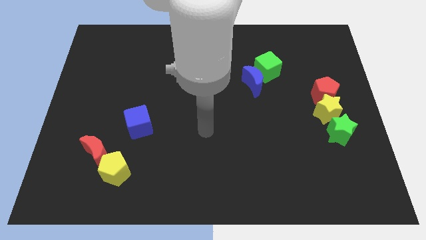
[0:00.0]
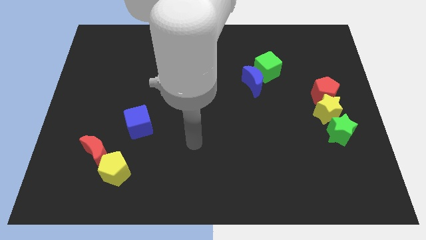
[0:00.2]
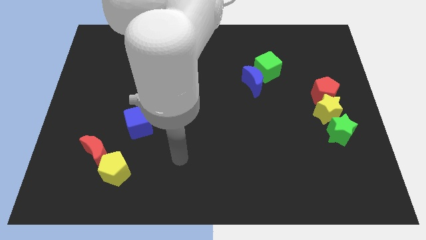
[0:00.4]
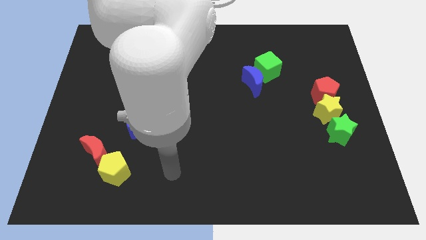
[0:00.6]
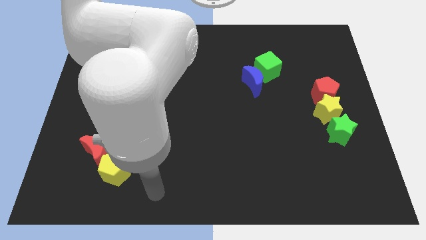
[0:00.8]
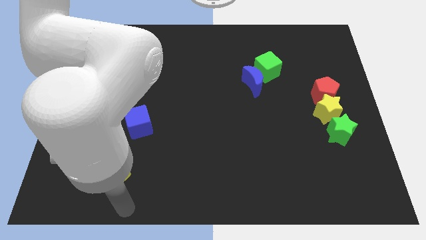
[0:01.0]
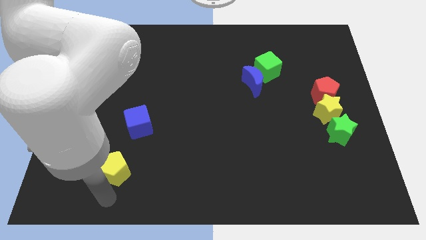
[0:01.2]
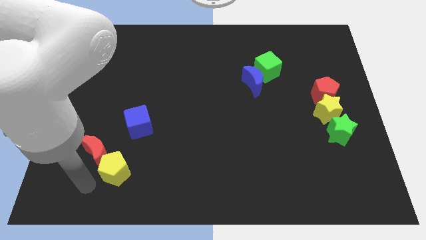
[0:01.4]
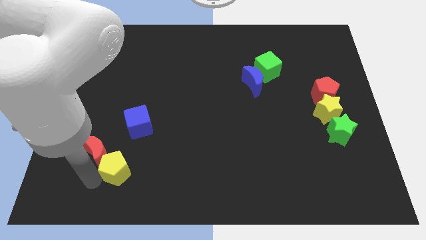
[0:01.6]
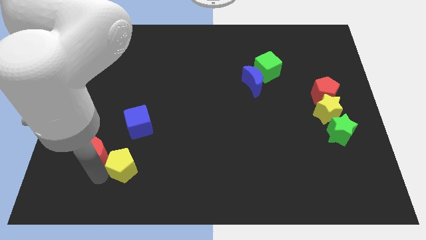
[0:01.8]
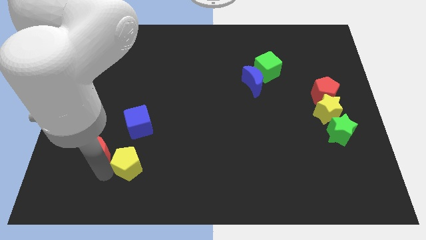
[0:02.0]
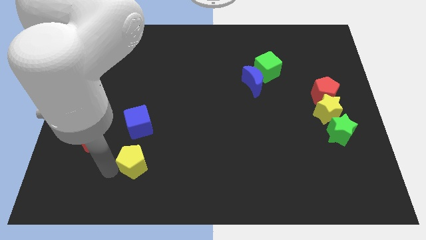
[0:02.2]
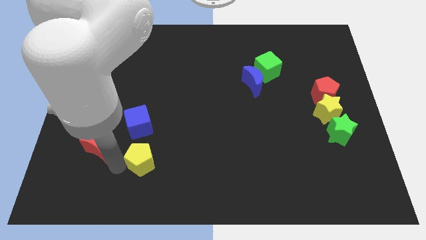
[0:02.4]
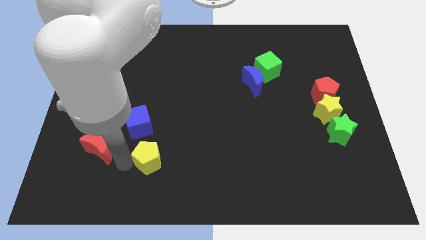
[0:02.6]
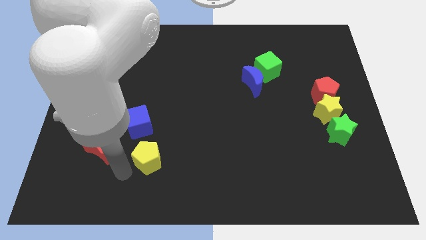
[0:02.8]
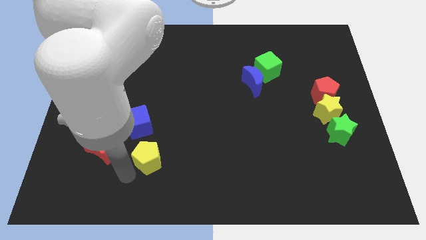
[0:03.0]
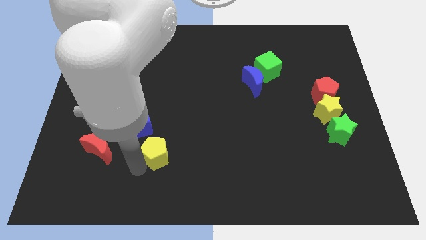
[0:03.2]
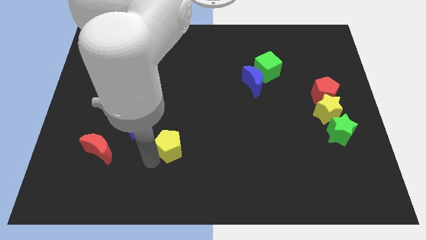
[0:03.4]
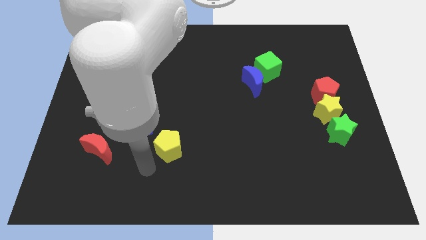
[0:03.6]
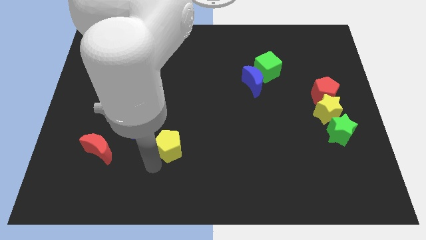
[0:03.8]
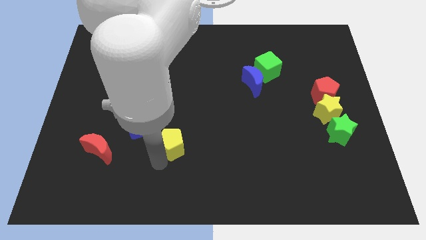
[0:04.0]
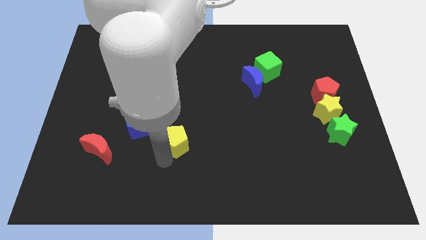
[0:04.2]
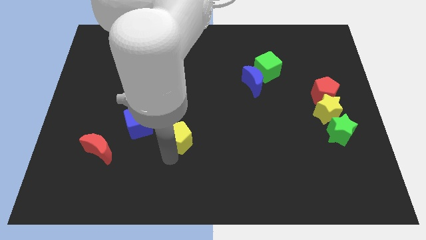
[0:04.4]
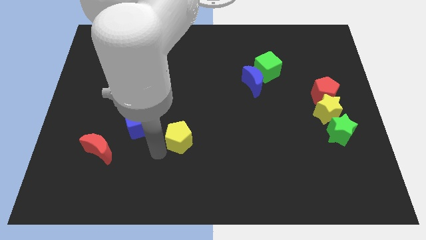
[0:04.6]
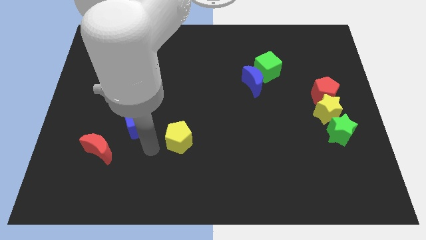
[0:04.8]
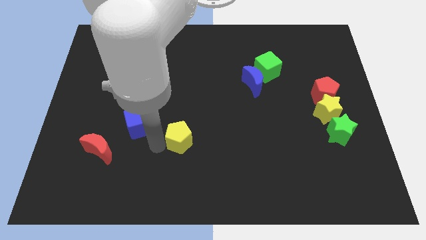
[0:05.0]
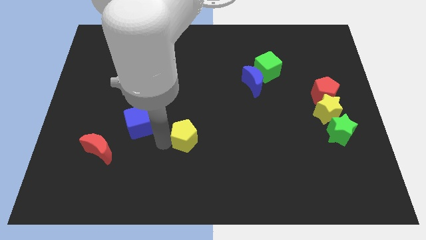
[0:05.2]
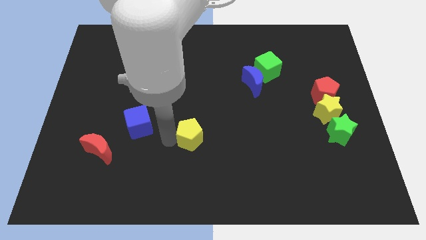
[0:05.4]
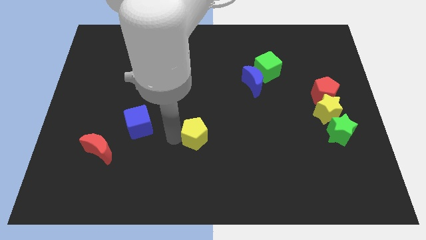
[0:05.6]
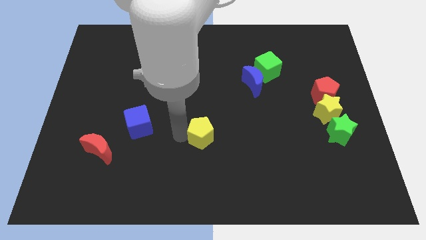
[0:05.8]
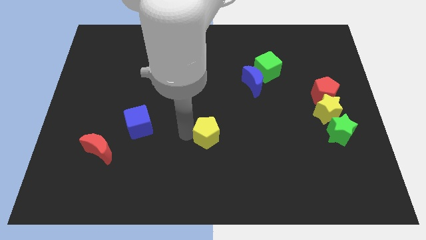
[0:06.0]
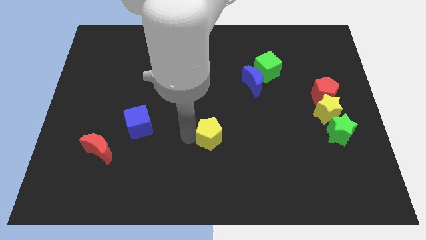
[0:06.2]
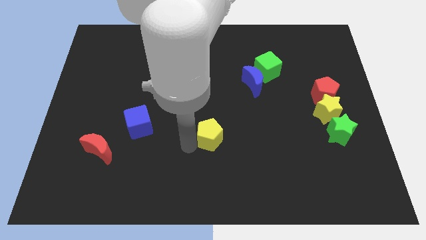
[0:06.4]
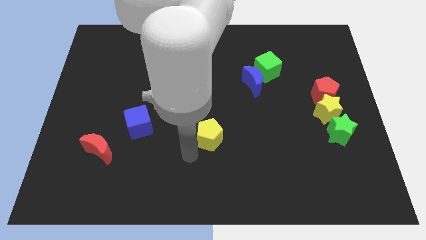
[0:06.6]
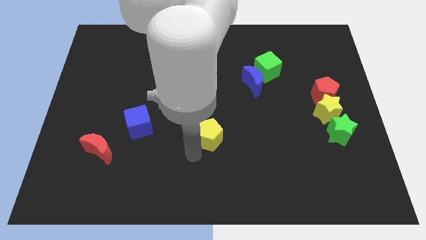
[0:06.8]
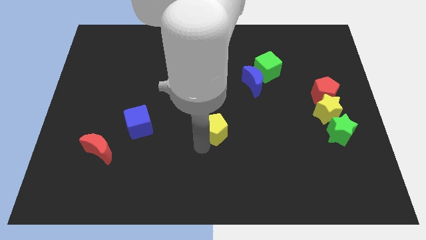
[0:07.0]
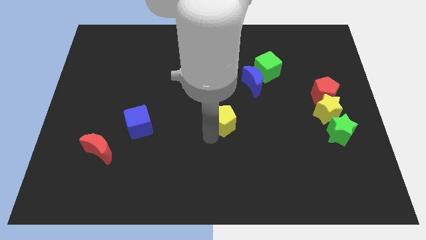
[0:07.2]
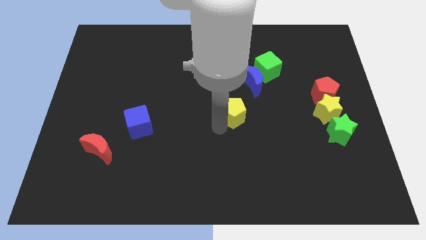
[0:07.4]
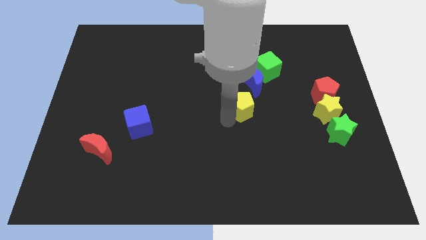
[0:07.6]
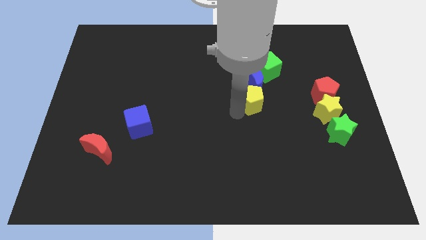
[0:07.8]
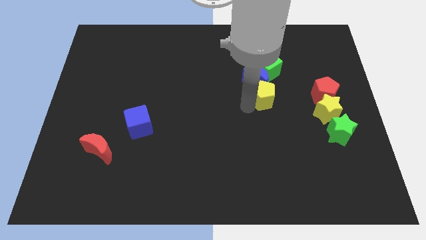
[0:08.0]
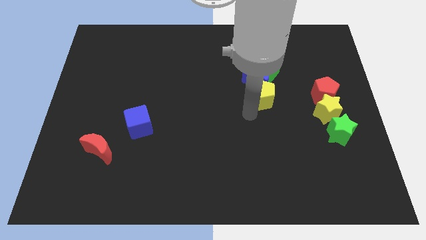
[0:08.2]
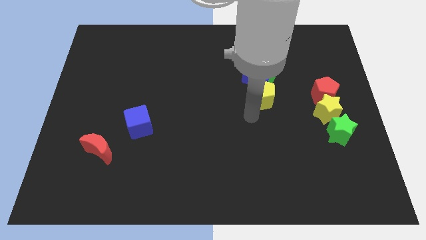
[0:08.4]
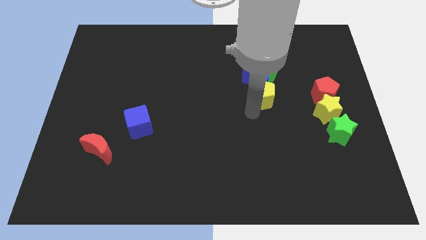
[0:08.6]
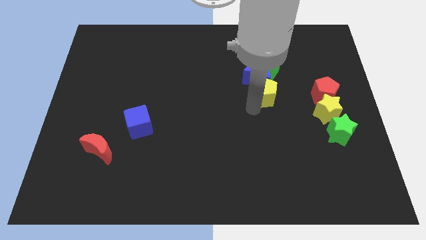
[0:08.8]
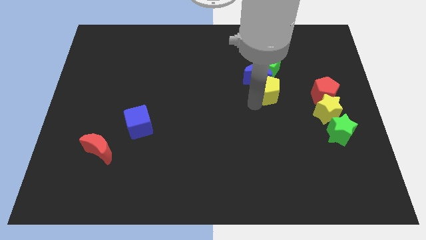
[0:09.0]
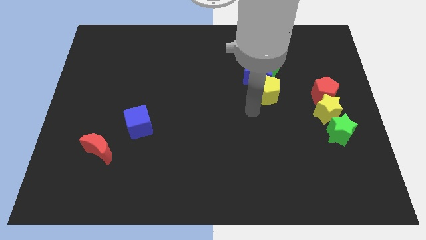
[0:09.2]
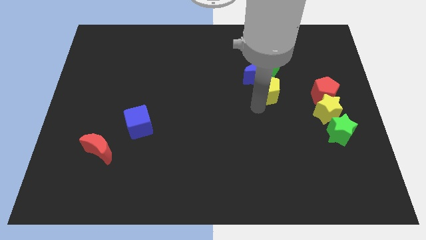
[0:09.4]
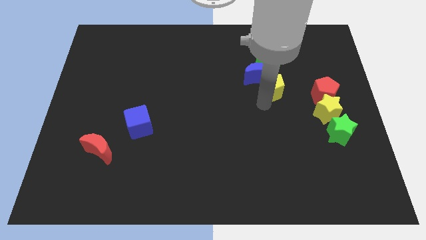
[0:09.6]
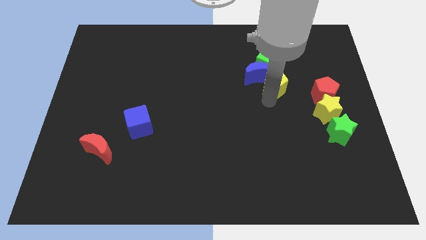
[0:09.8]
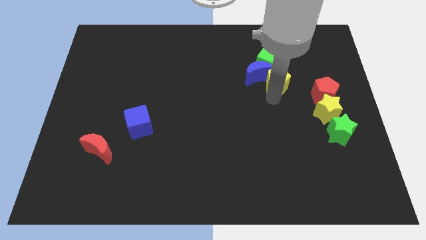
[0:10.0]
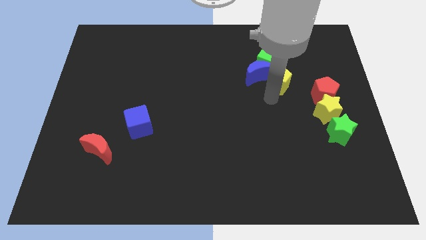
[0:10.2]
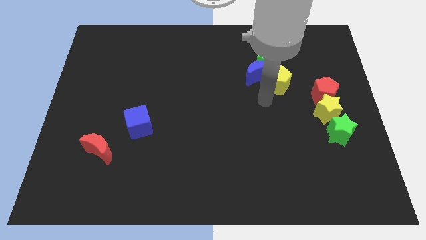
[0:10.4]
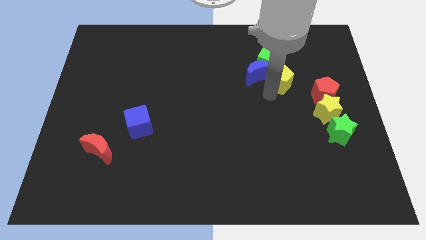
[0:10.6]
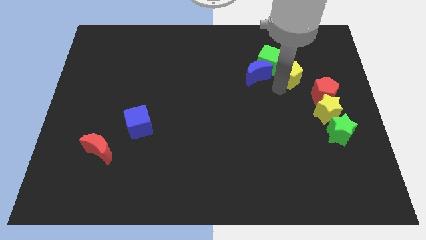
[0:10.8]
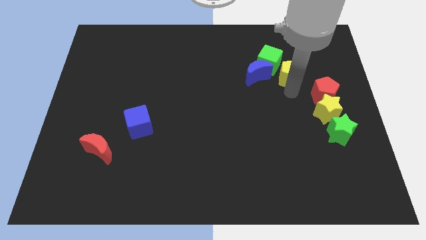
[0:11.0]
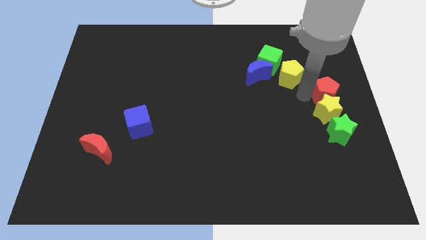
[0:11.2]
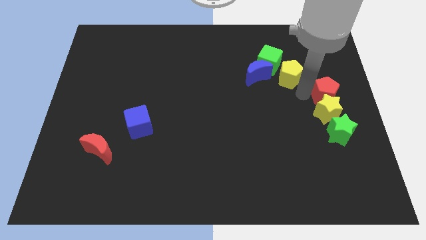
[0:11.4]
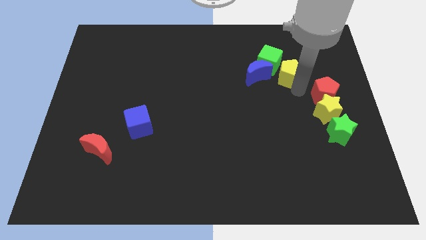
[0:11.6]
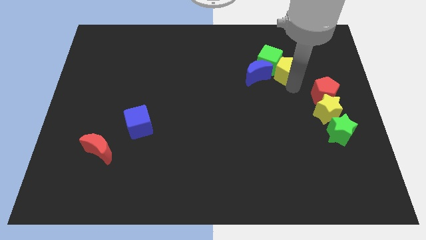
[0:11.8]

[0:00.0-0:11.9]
put the yellow pentagon to the top right of the blue moon

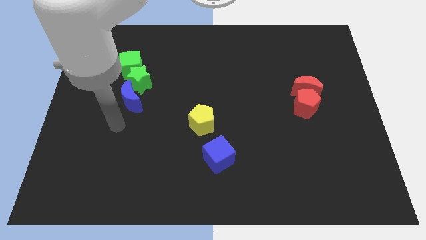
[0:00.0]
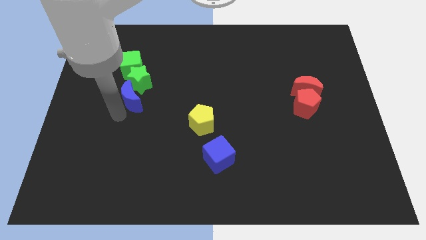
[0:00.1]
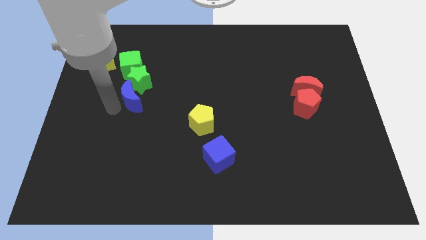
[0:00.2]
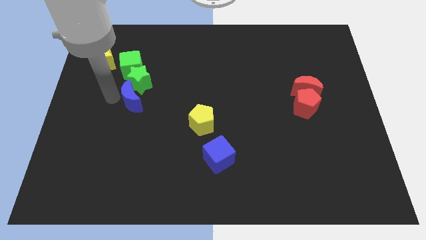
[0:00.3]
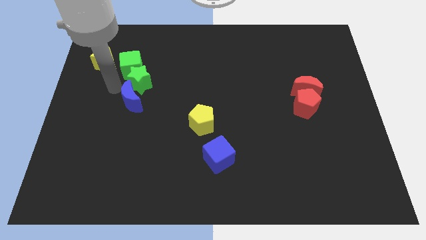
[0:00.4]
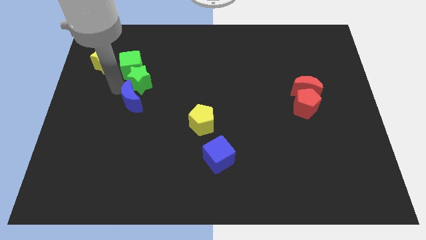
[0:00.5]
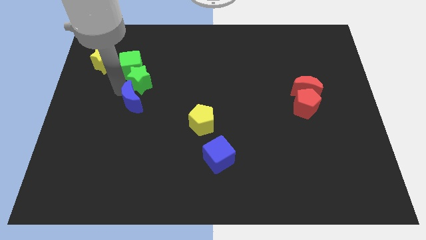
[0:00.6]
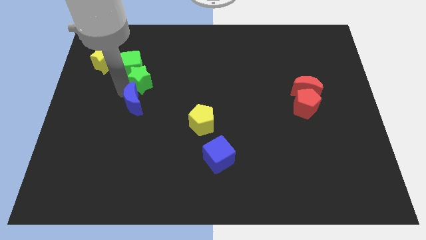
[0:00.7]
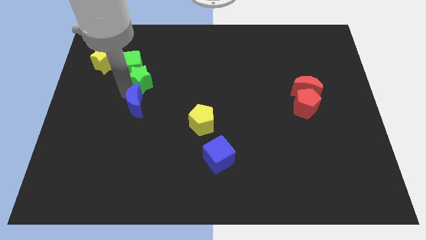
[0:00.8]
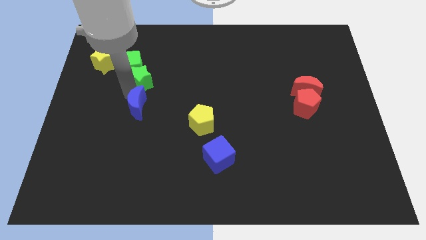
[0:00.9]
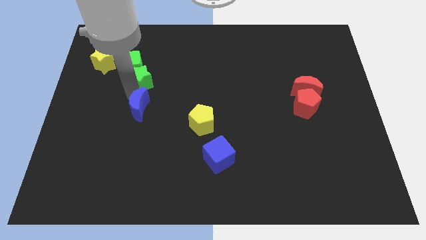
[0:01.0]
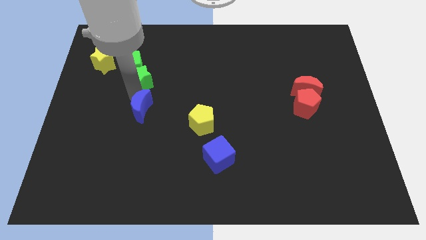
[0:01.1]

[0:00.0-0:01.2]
move the blue moon just left of the yellow pentagon
